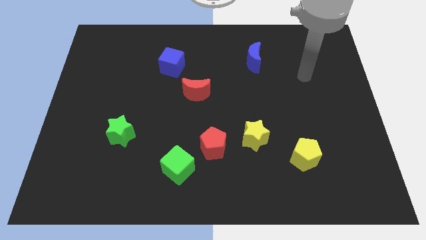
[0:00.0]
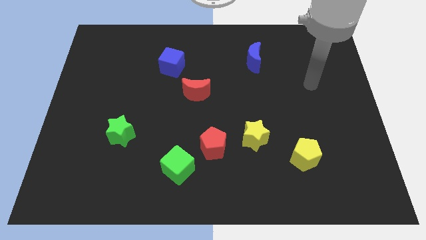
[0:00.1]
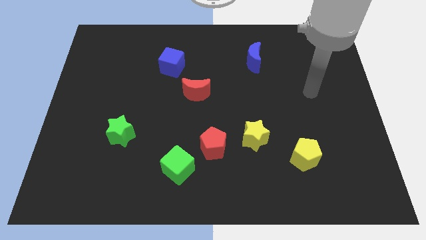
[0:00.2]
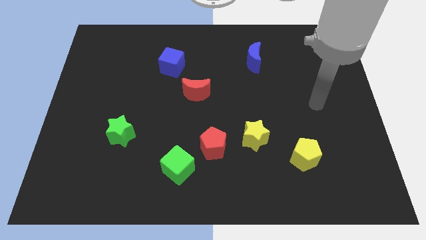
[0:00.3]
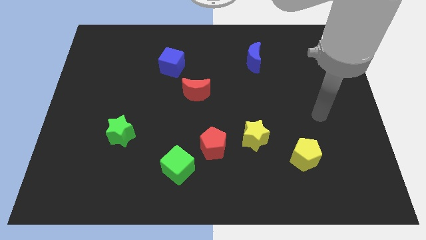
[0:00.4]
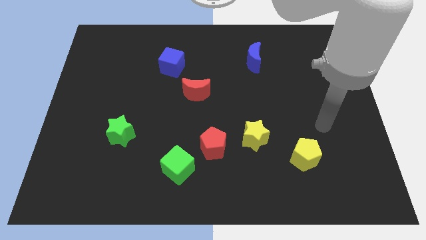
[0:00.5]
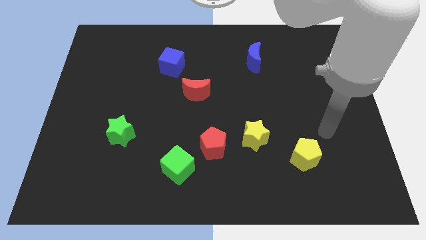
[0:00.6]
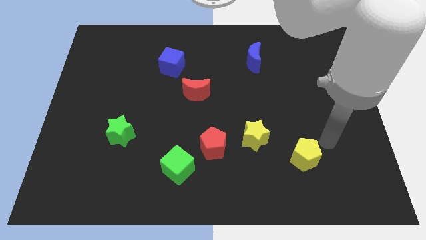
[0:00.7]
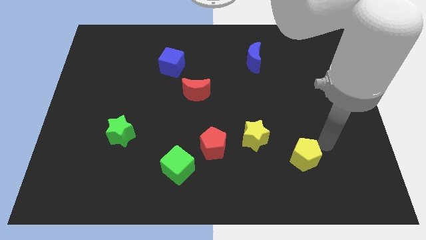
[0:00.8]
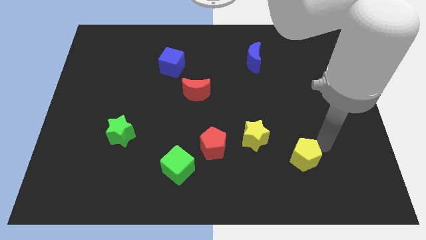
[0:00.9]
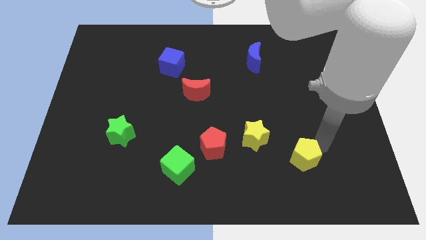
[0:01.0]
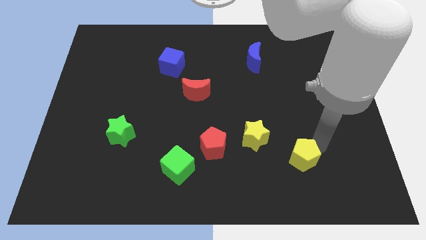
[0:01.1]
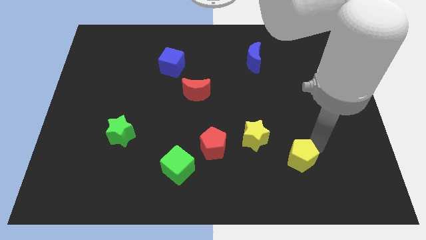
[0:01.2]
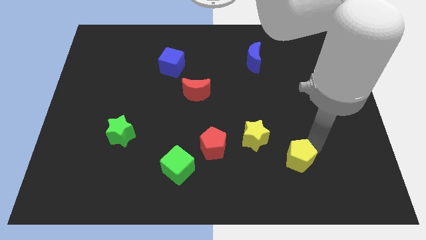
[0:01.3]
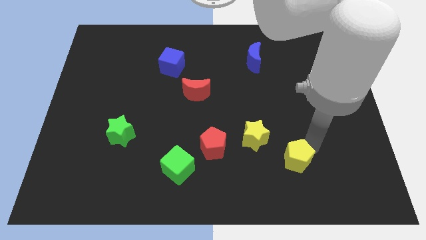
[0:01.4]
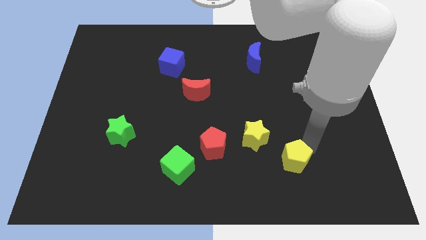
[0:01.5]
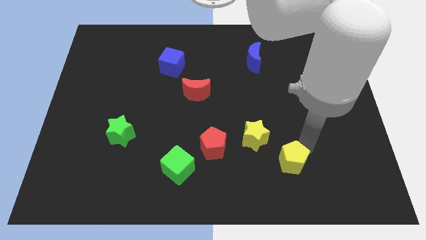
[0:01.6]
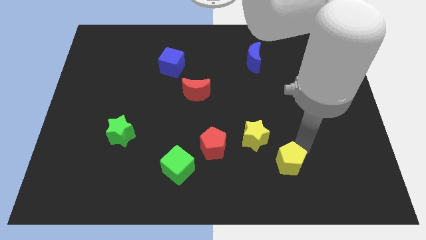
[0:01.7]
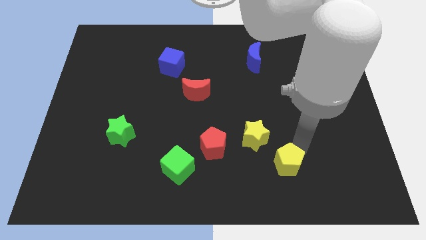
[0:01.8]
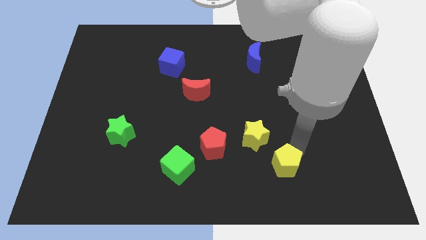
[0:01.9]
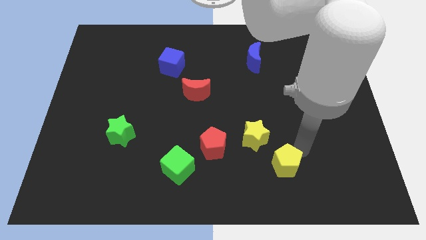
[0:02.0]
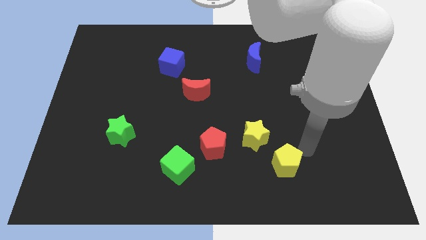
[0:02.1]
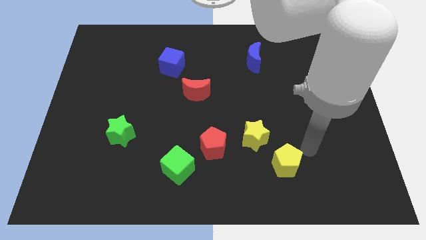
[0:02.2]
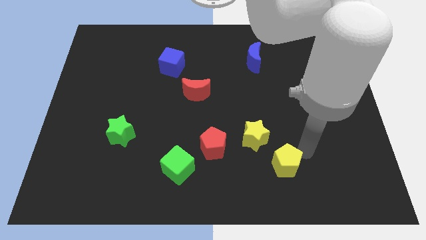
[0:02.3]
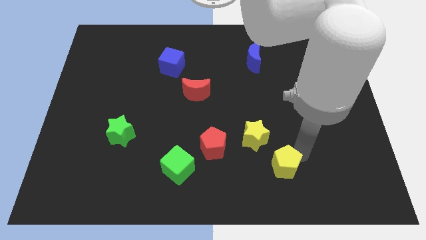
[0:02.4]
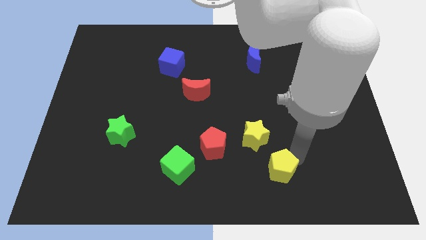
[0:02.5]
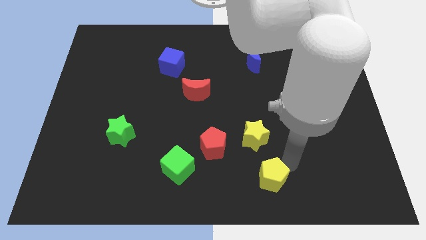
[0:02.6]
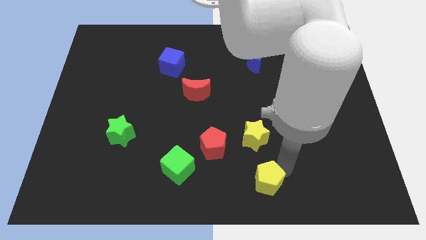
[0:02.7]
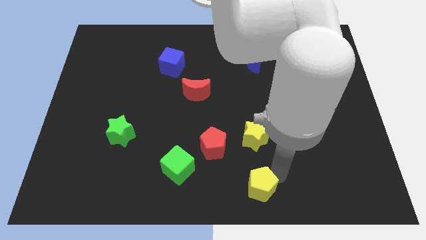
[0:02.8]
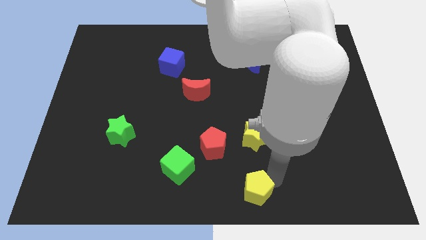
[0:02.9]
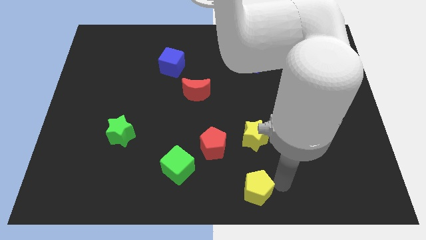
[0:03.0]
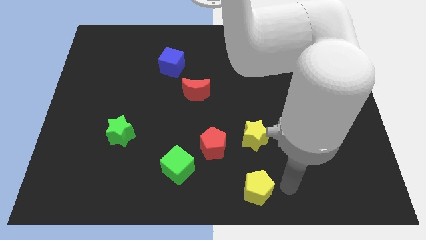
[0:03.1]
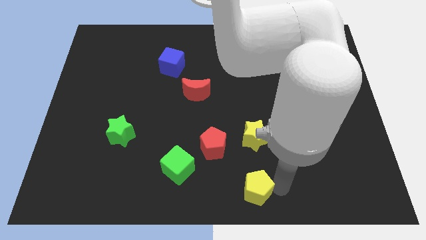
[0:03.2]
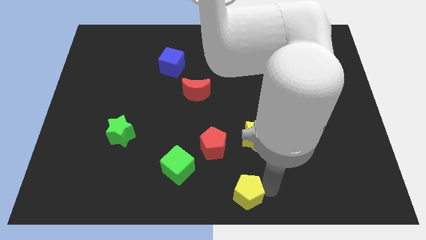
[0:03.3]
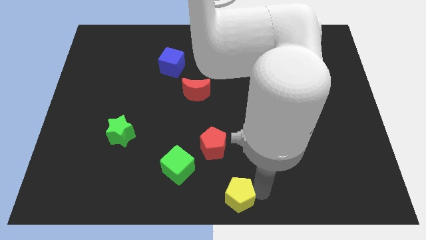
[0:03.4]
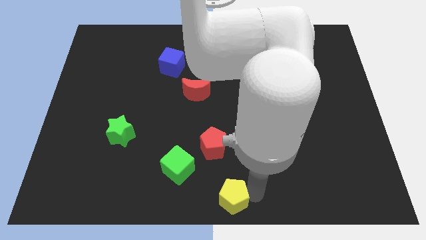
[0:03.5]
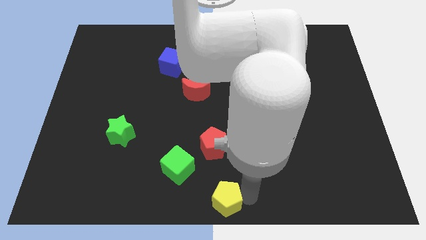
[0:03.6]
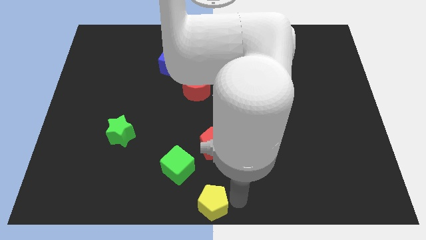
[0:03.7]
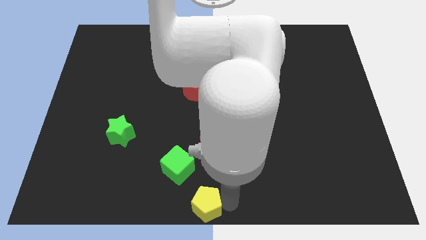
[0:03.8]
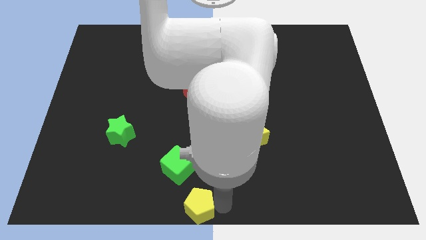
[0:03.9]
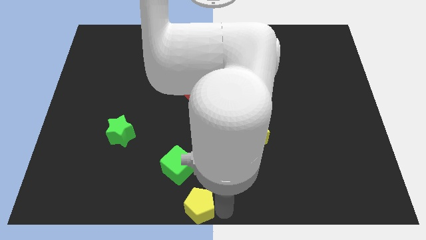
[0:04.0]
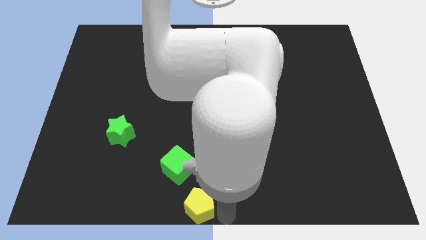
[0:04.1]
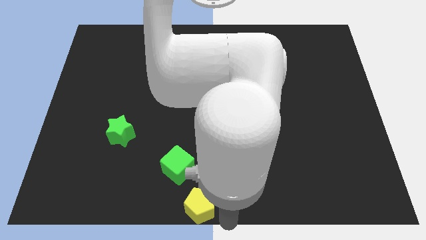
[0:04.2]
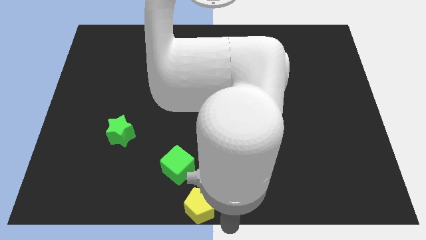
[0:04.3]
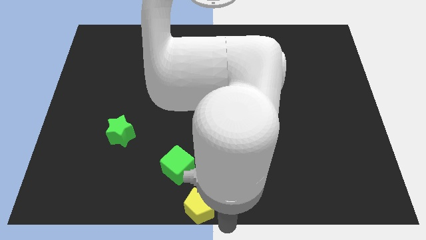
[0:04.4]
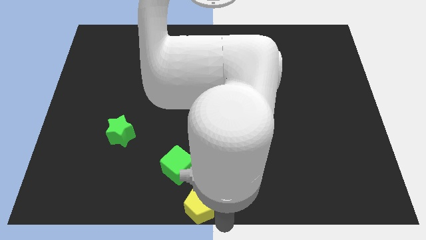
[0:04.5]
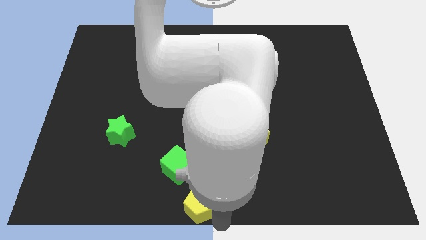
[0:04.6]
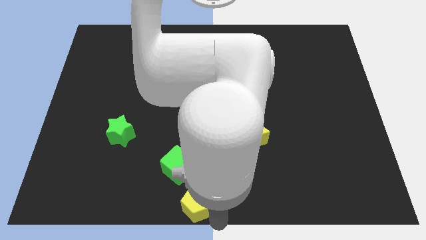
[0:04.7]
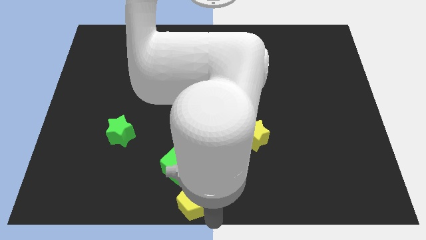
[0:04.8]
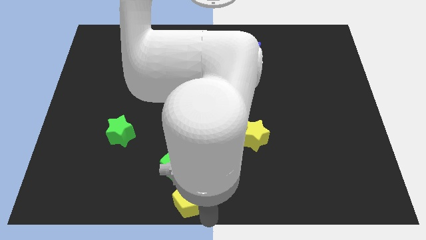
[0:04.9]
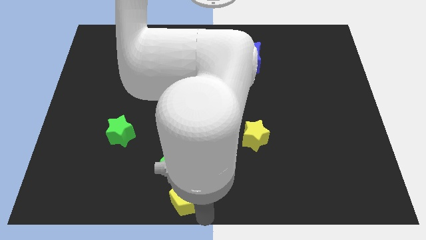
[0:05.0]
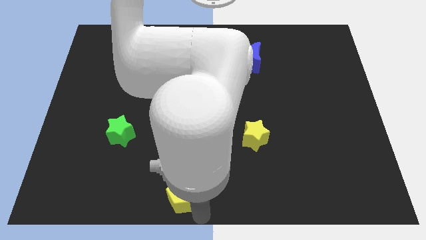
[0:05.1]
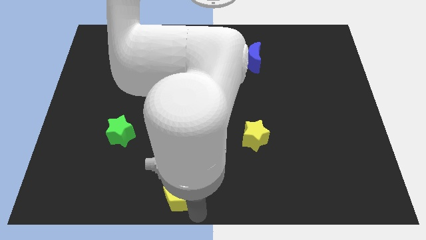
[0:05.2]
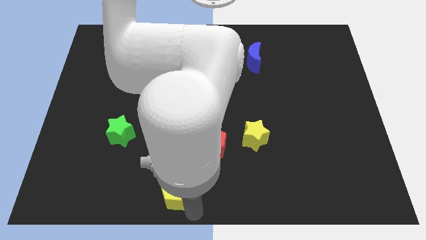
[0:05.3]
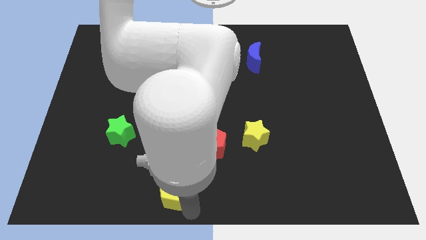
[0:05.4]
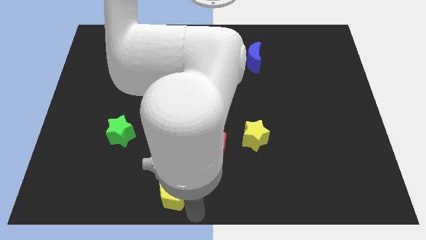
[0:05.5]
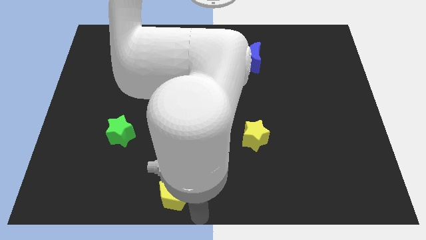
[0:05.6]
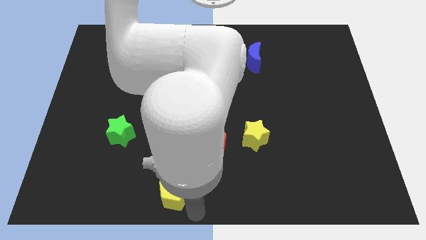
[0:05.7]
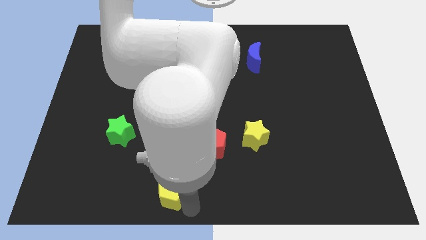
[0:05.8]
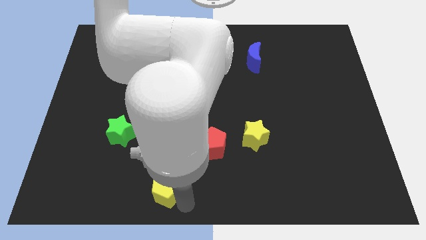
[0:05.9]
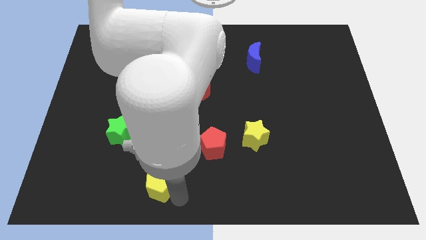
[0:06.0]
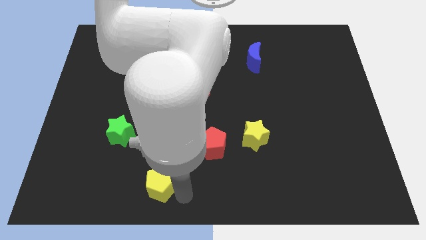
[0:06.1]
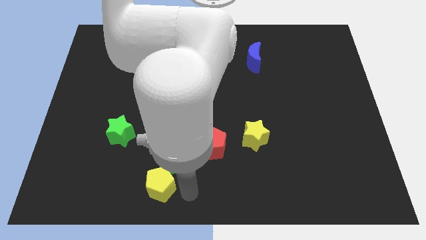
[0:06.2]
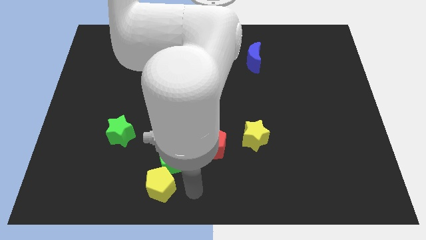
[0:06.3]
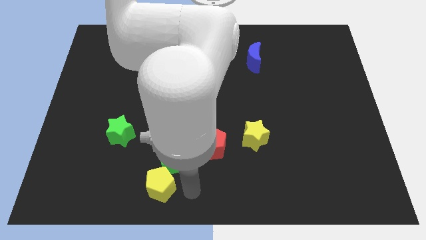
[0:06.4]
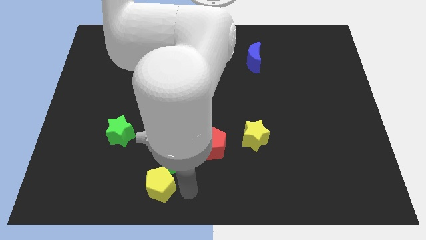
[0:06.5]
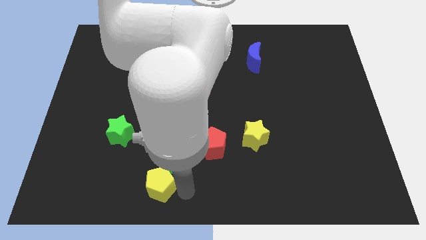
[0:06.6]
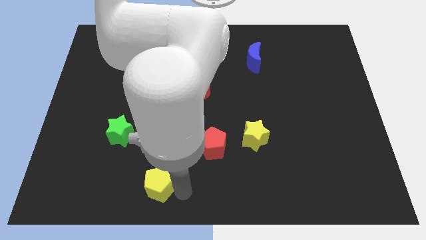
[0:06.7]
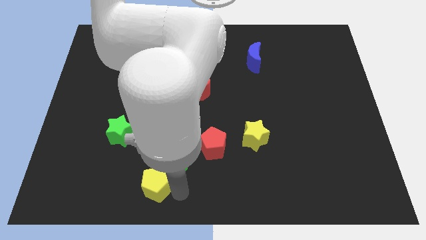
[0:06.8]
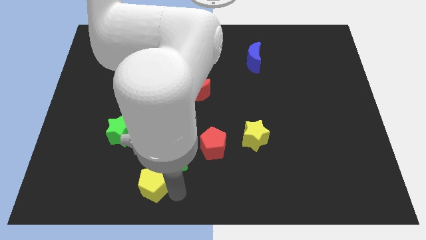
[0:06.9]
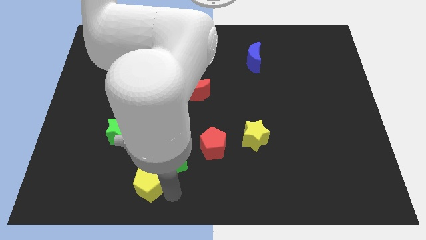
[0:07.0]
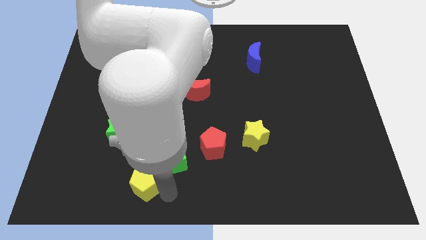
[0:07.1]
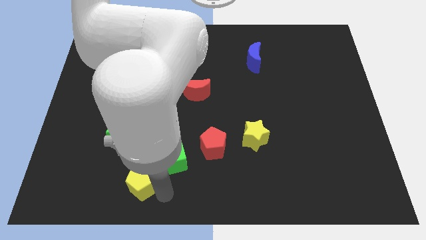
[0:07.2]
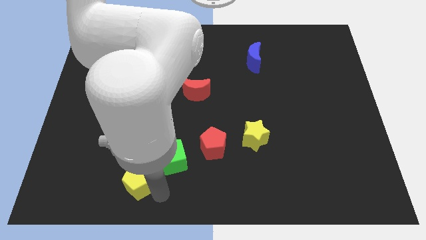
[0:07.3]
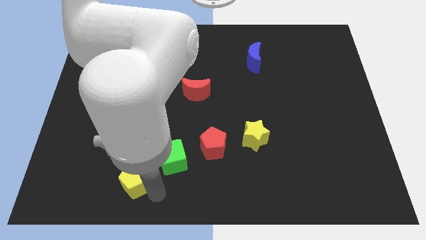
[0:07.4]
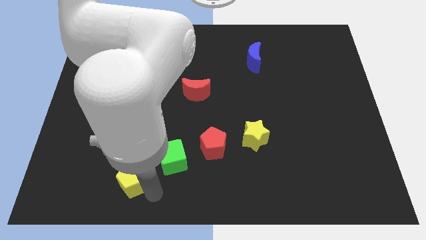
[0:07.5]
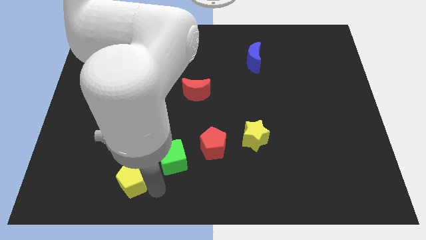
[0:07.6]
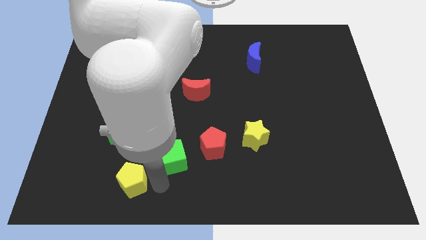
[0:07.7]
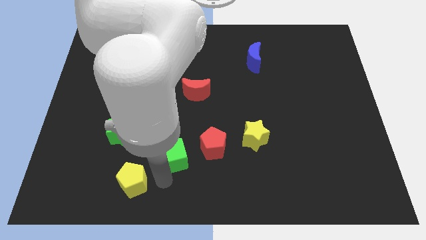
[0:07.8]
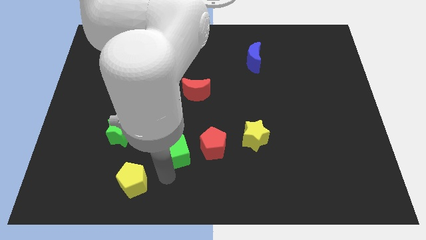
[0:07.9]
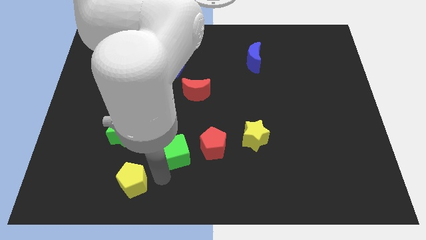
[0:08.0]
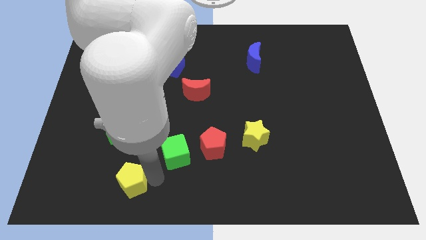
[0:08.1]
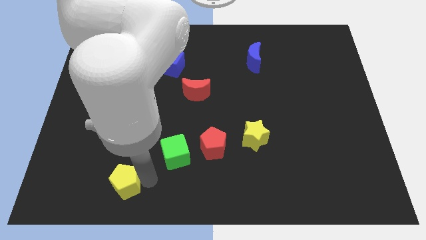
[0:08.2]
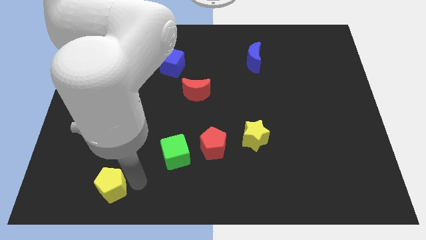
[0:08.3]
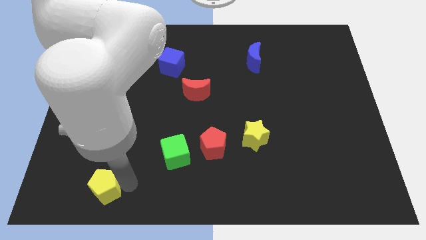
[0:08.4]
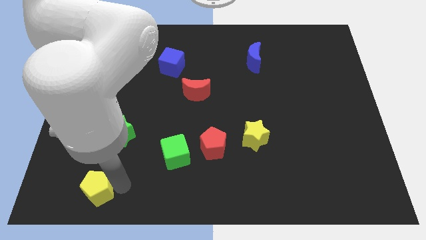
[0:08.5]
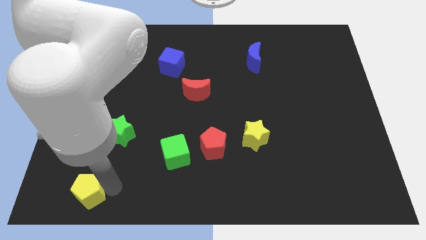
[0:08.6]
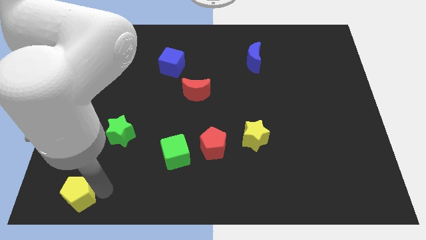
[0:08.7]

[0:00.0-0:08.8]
slide the yellow pentagon to the lower left corner
